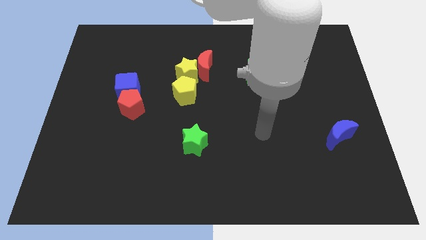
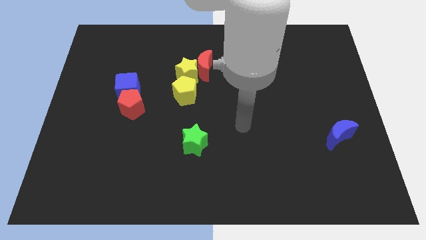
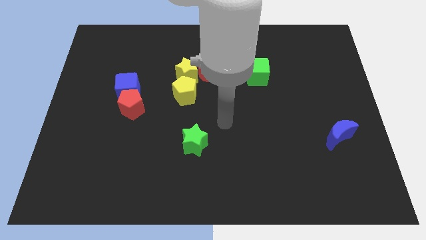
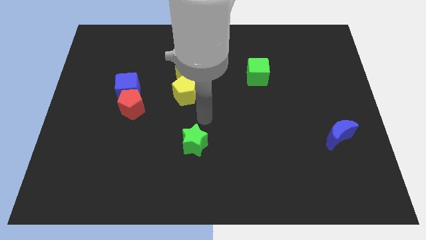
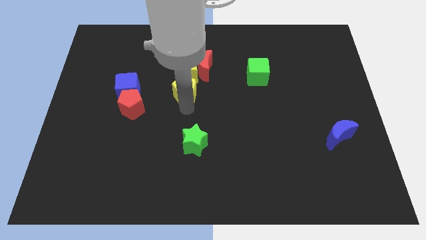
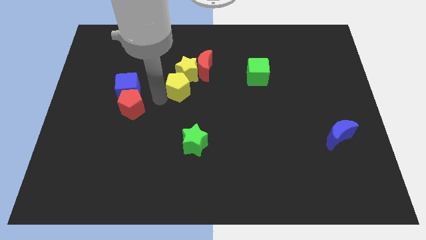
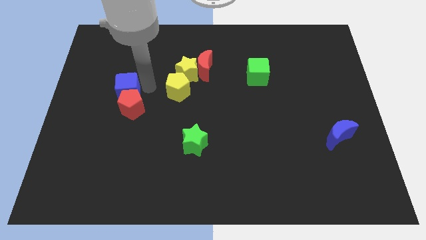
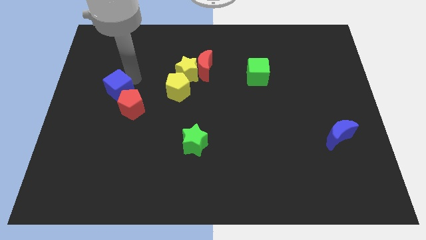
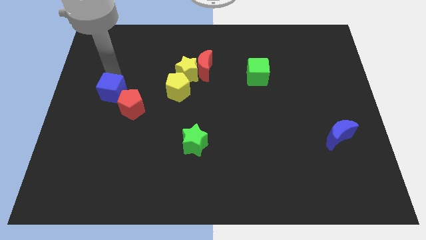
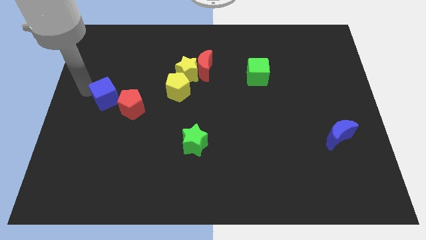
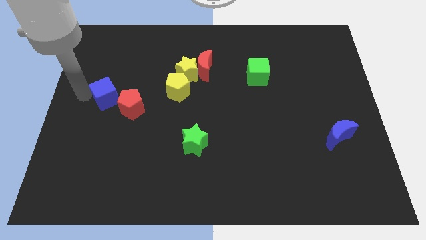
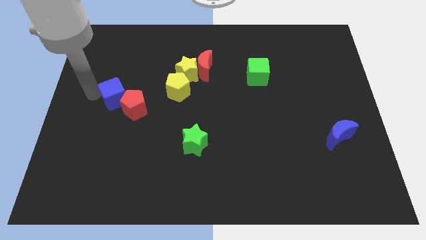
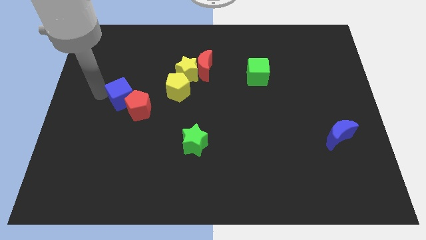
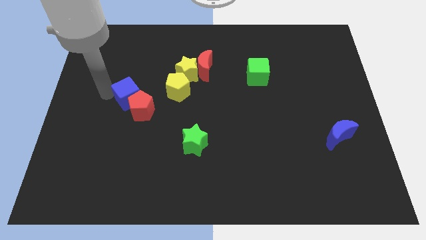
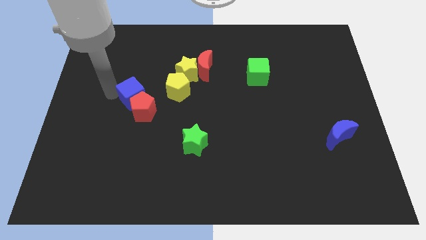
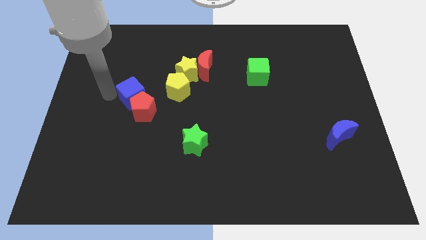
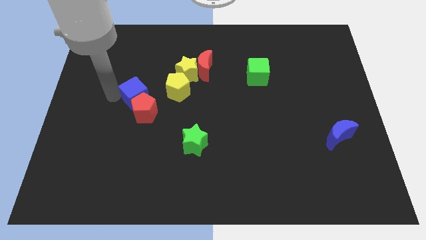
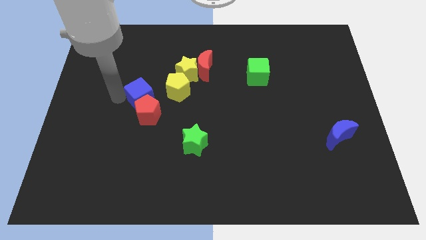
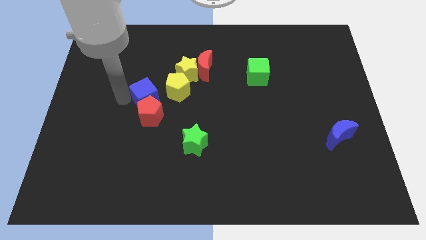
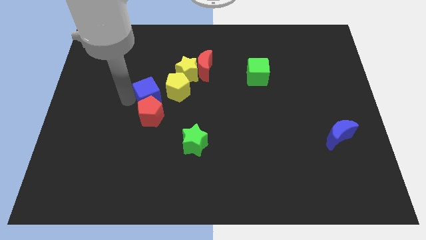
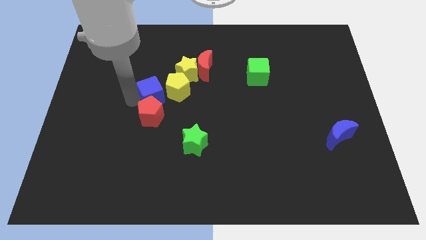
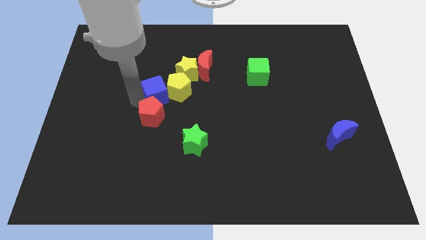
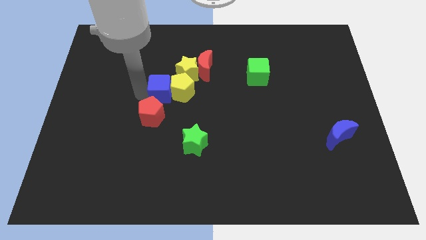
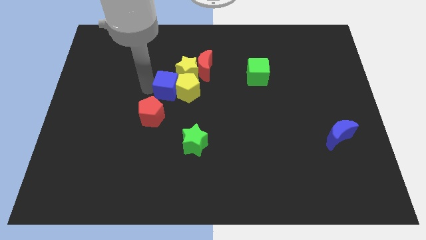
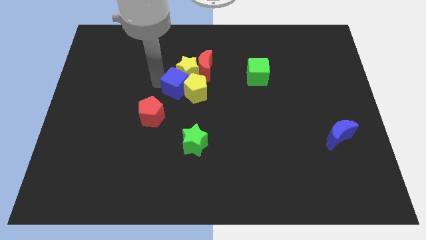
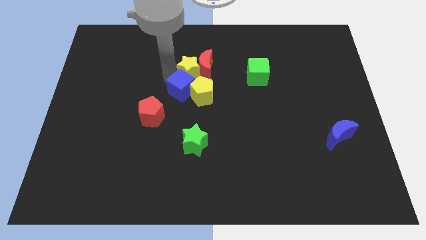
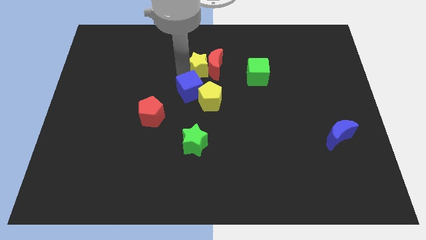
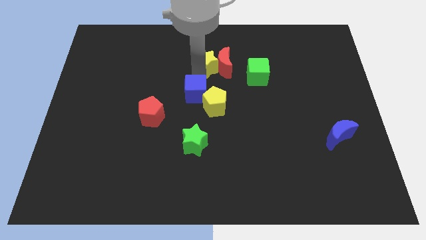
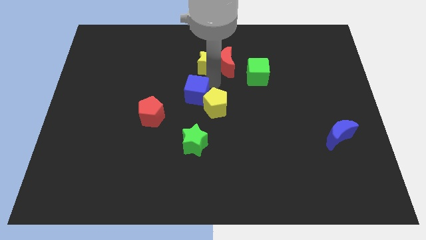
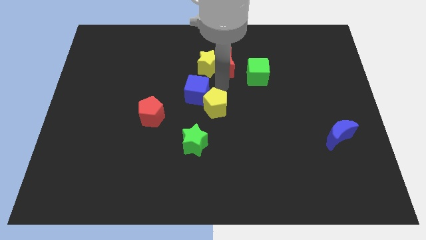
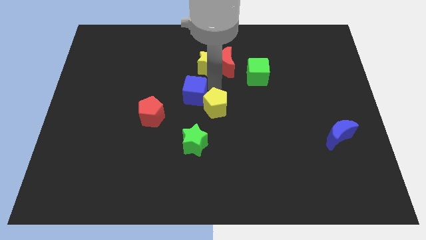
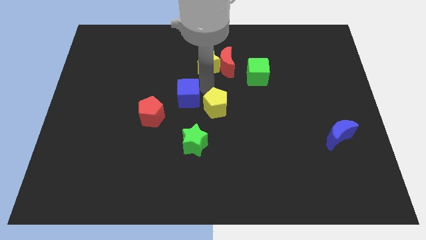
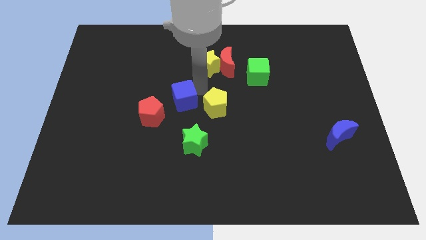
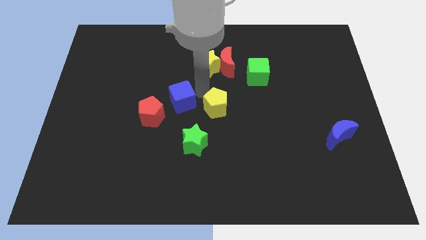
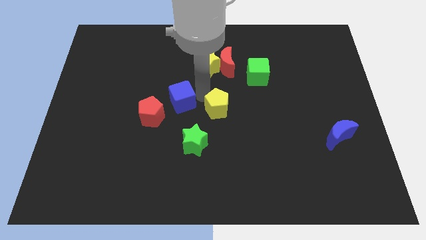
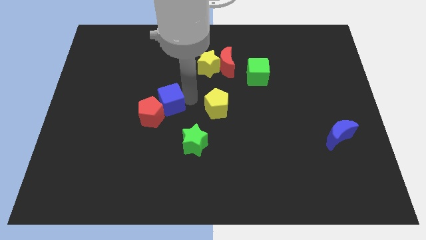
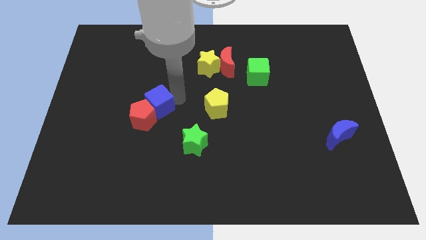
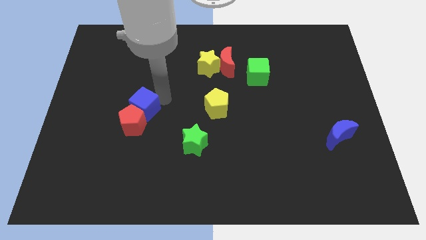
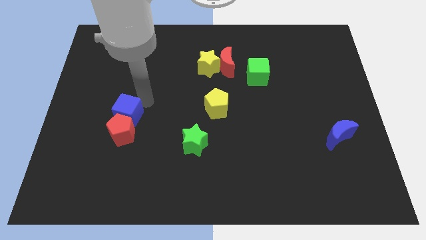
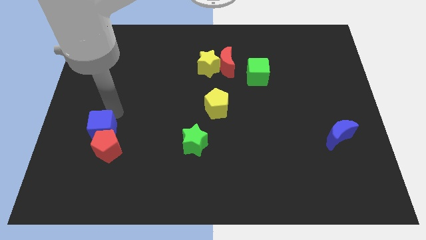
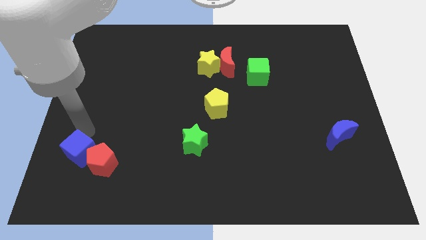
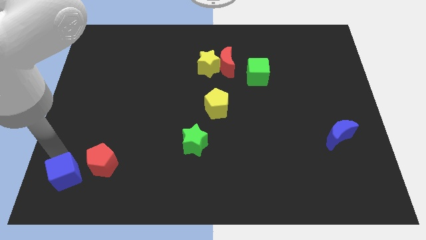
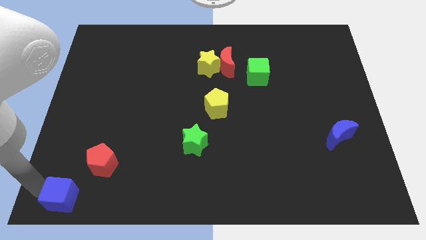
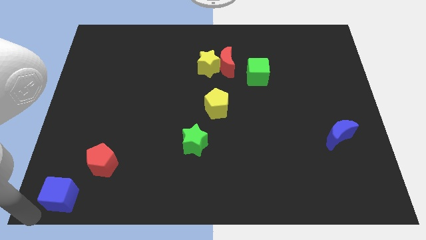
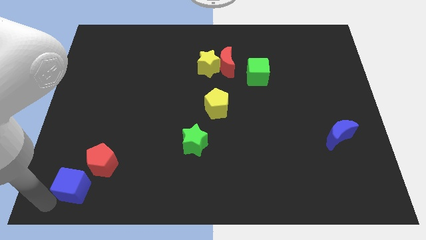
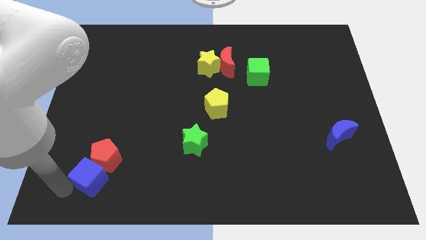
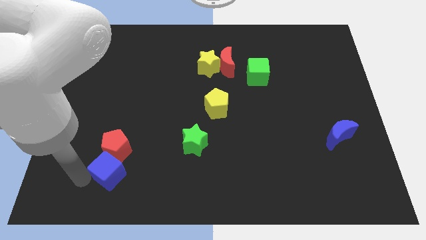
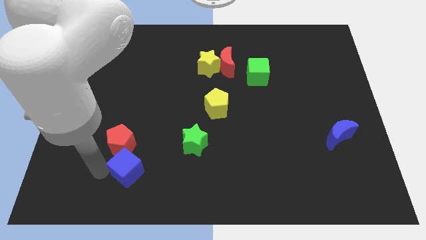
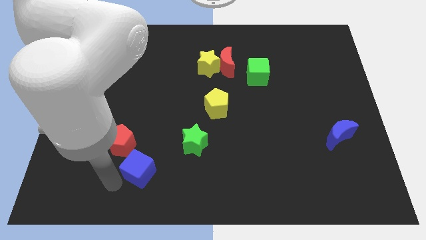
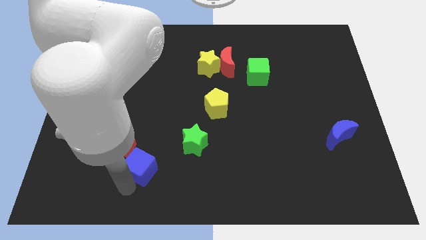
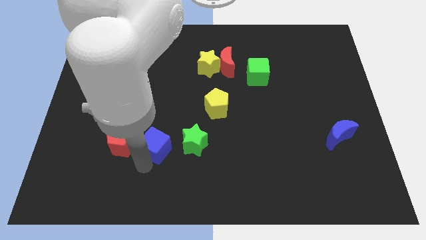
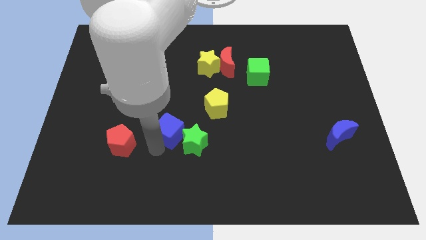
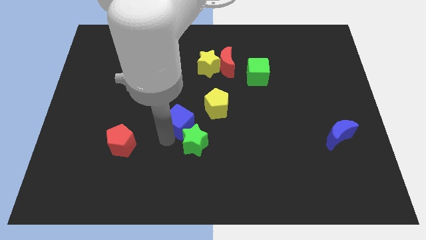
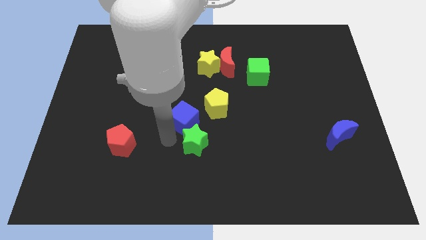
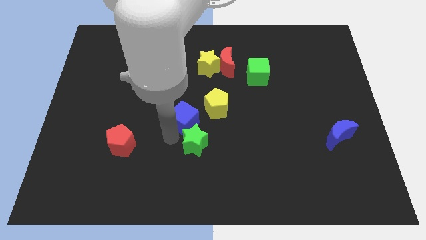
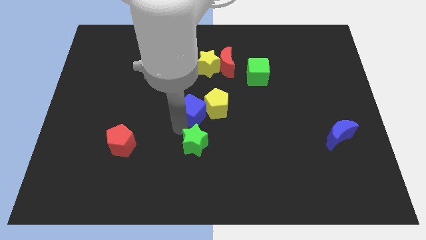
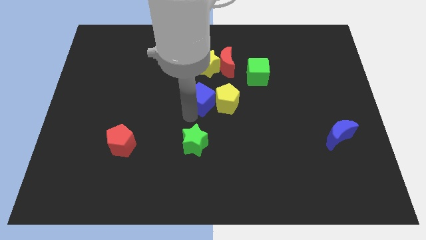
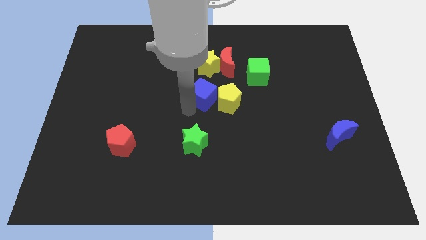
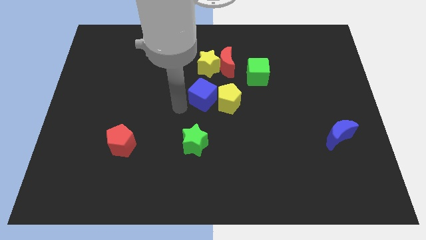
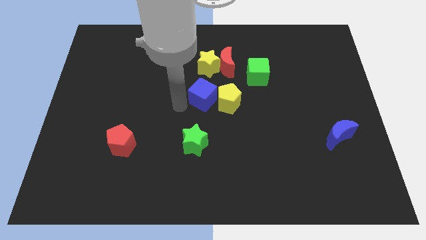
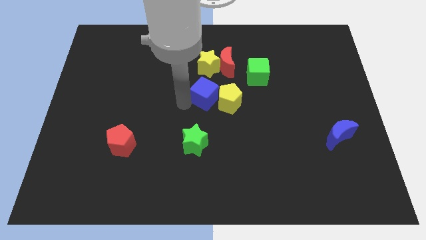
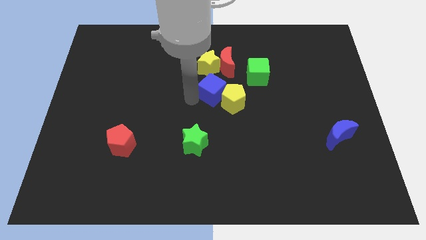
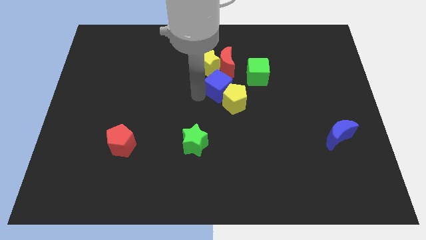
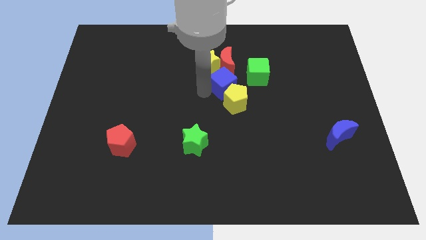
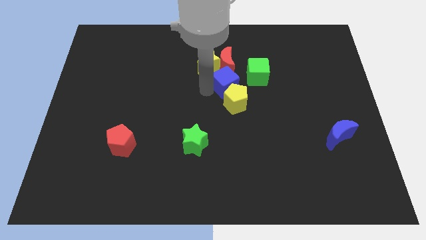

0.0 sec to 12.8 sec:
push the blue cube to the bottom right of the red moon

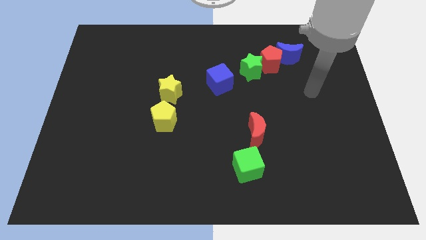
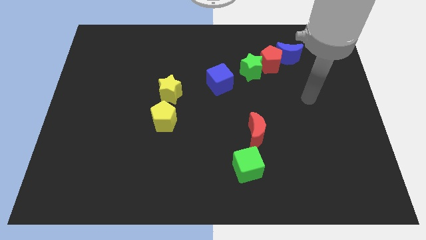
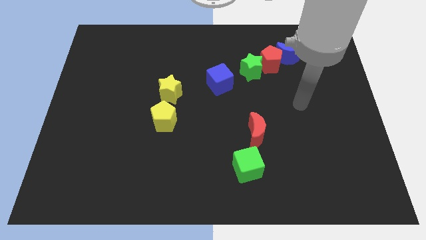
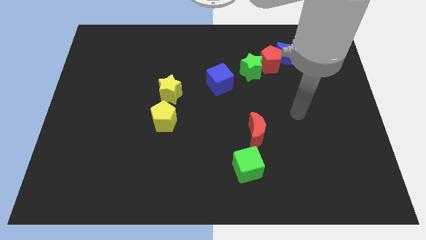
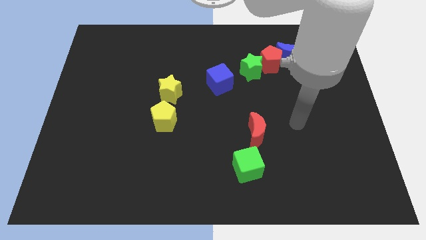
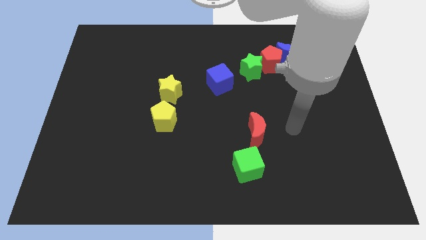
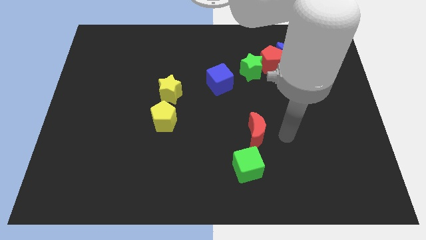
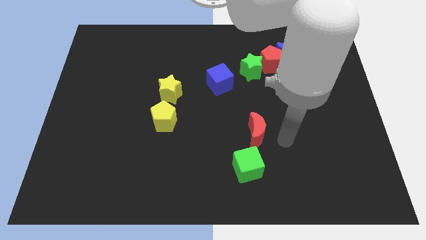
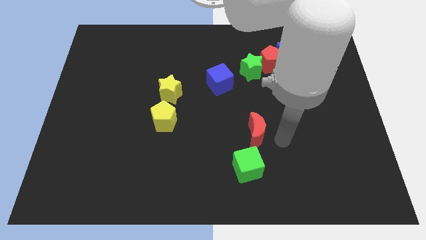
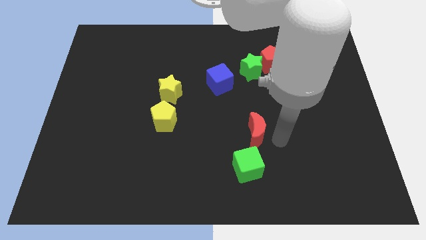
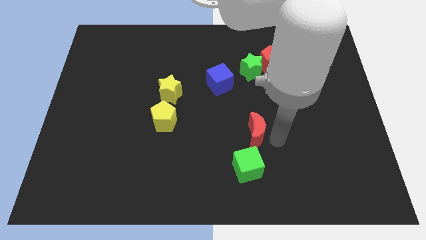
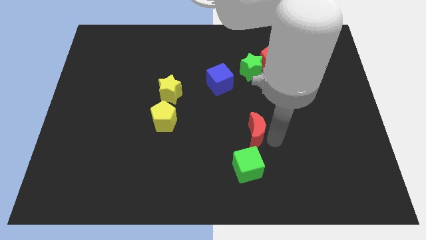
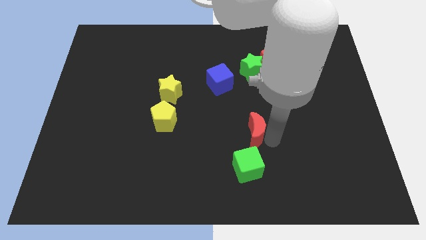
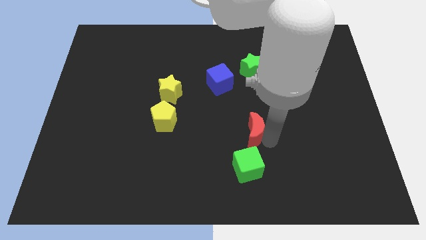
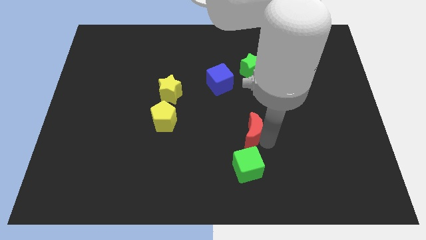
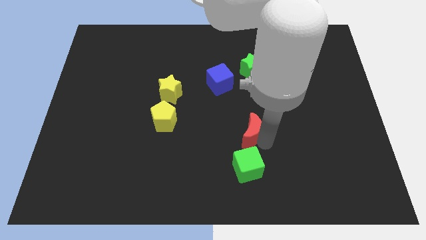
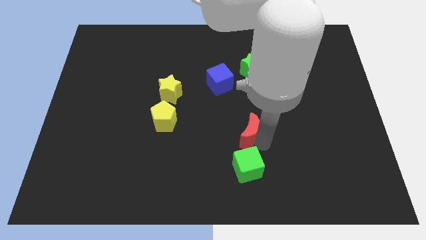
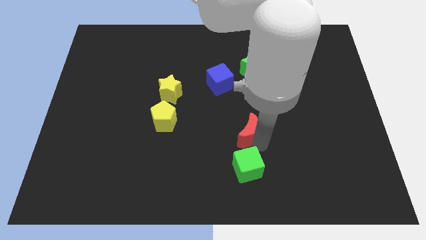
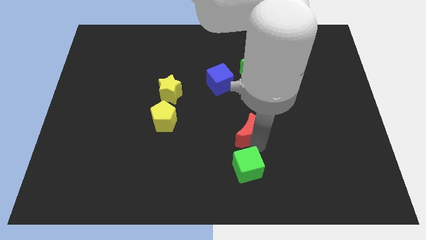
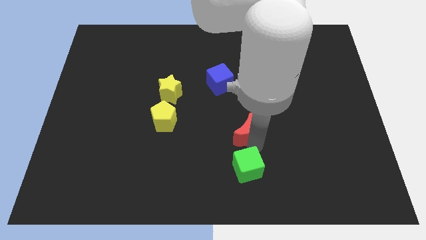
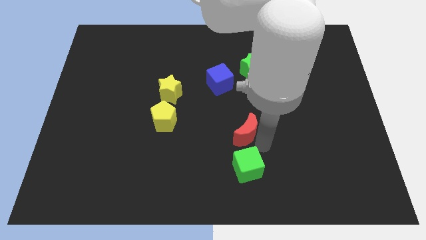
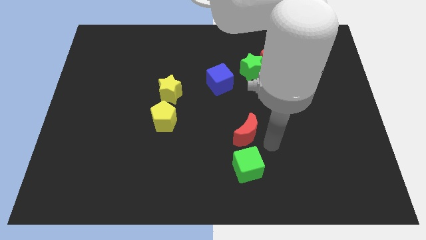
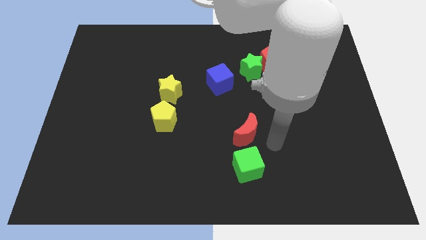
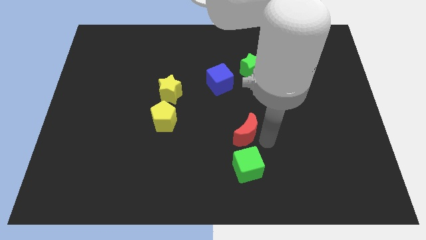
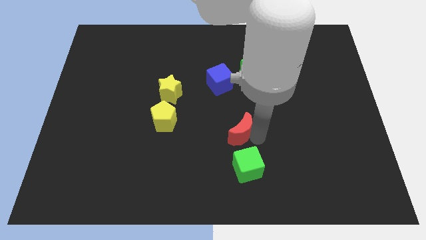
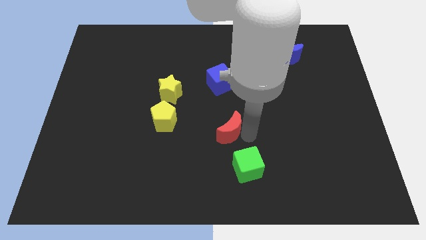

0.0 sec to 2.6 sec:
push the red moon just right of the yellow pentagon
